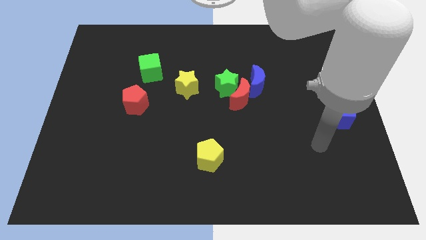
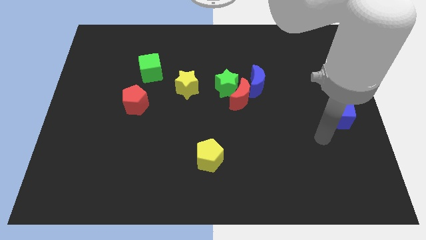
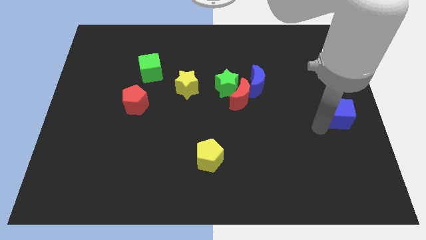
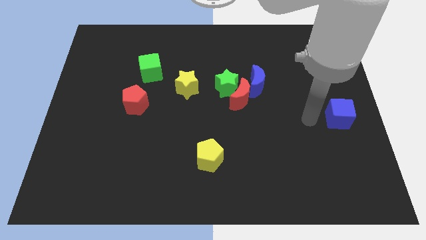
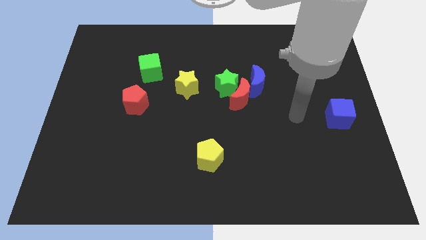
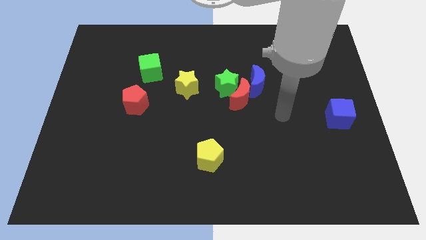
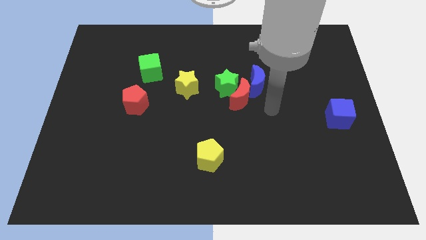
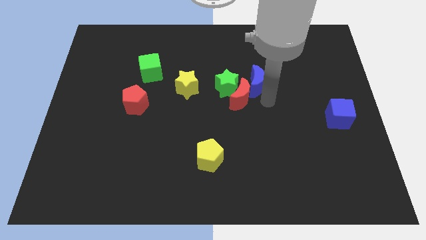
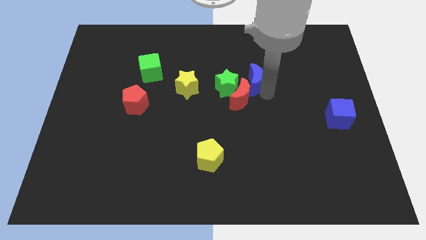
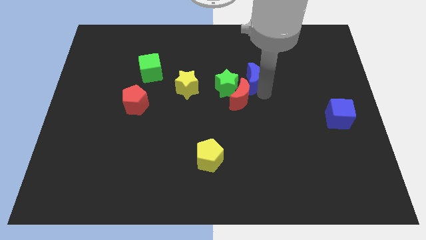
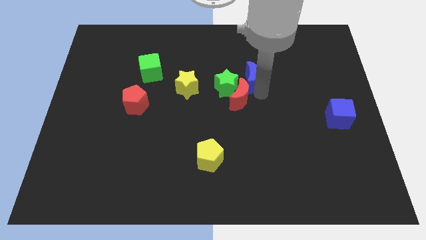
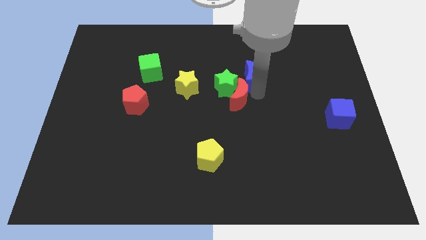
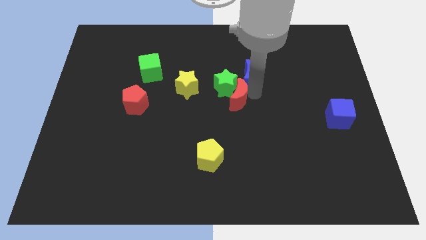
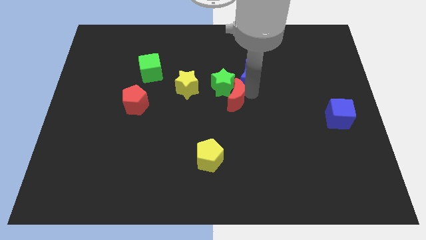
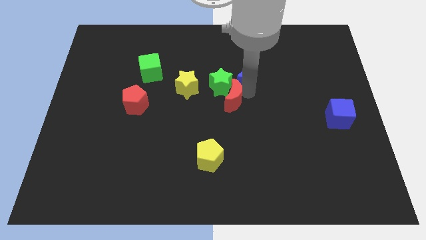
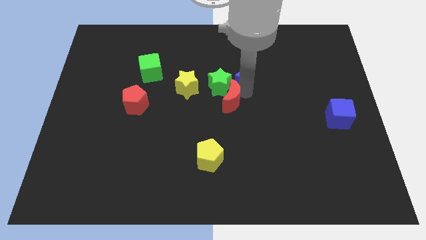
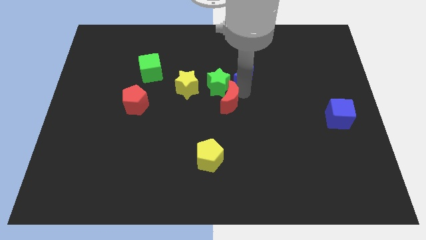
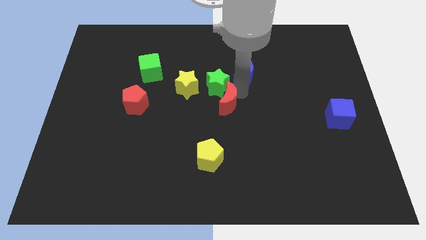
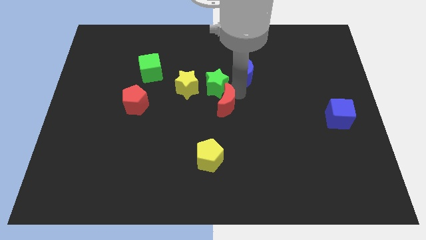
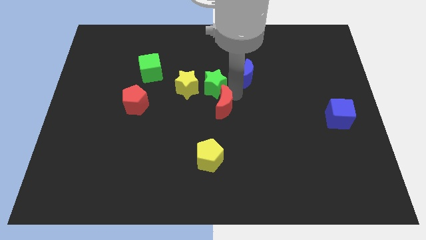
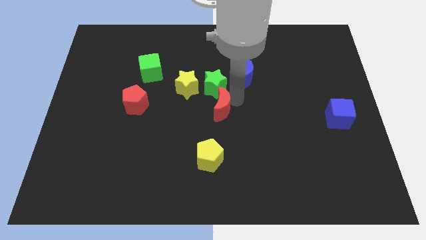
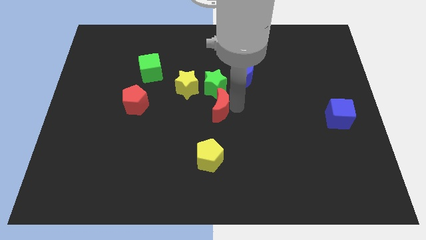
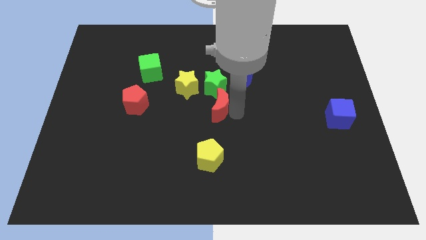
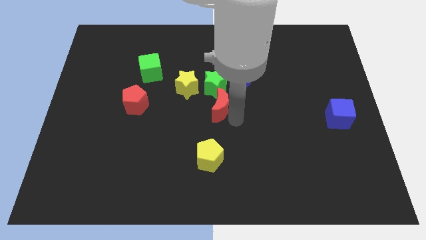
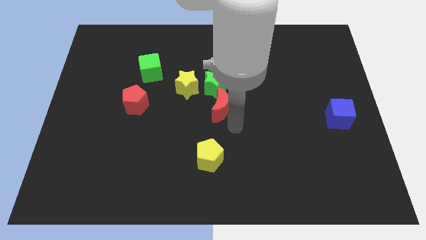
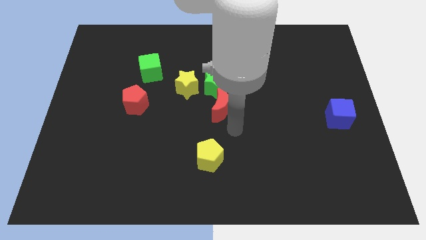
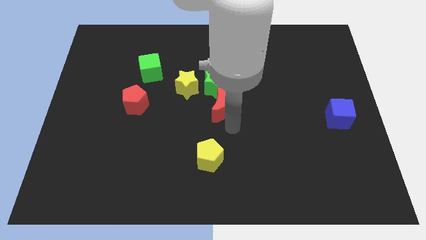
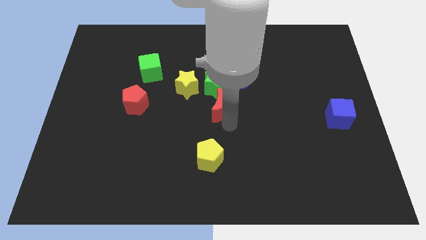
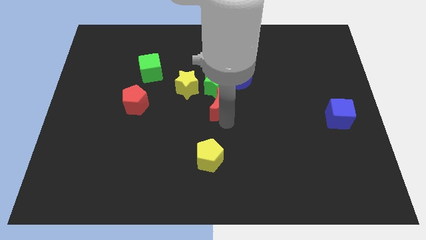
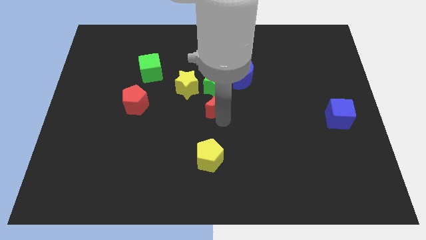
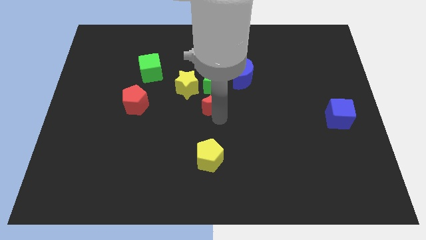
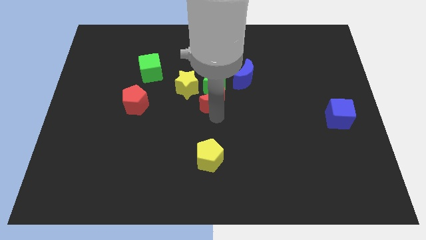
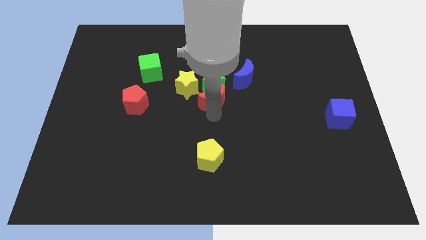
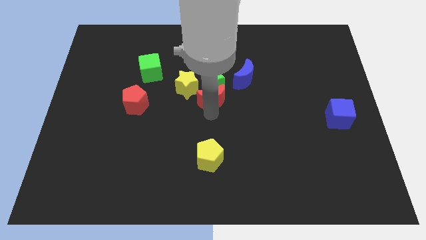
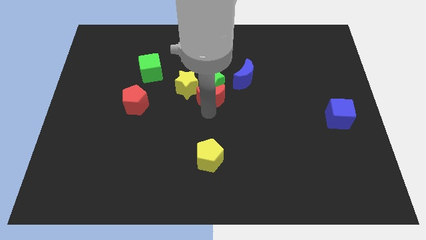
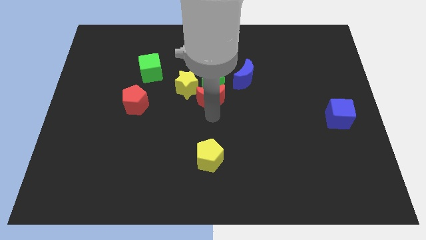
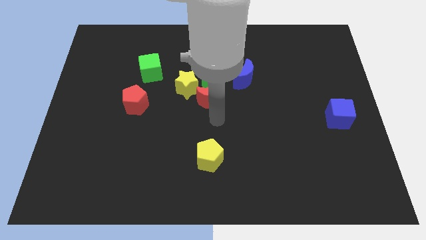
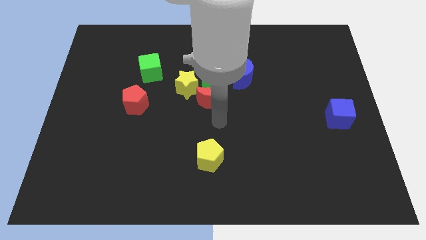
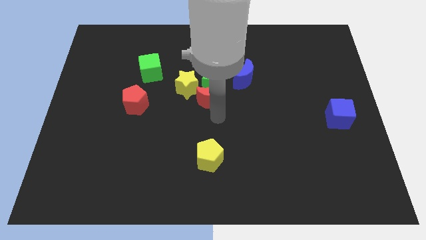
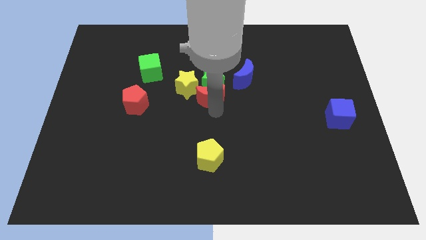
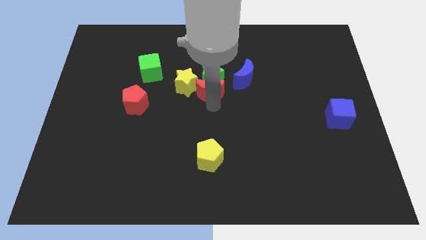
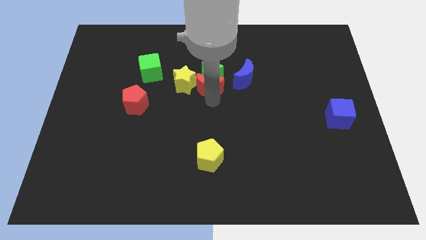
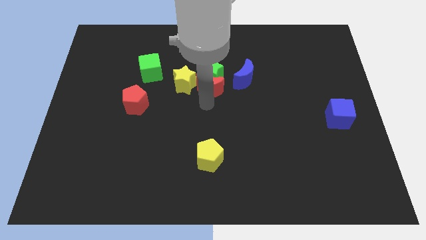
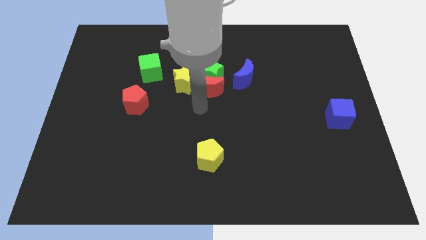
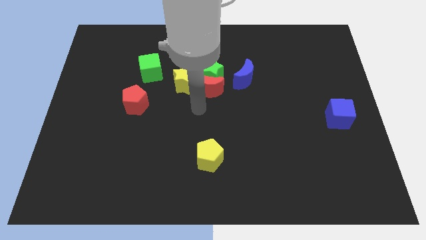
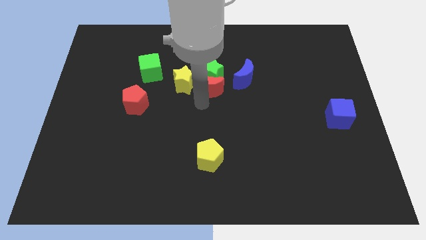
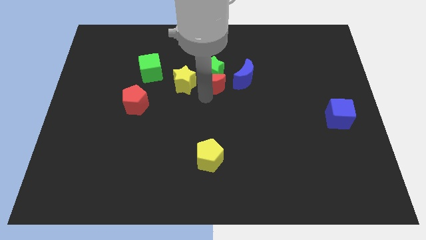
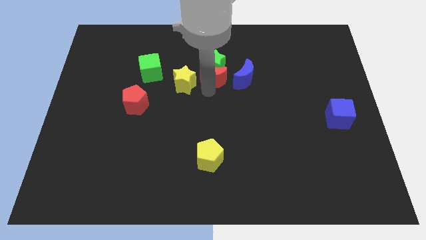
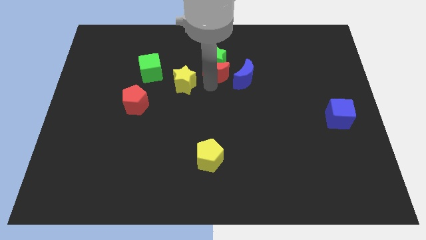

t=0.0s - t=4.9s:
move the red moon to the top left of the blue moon

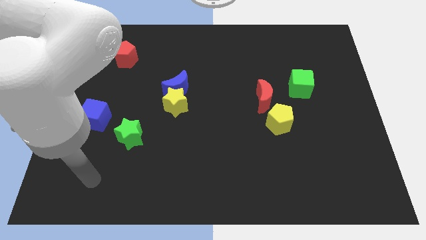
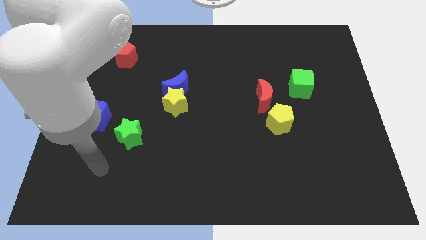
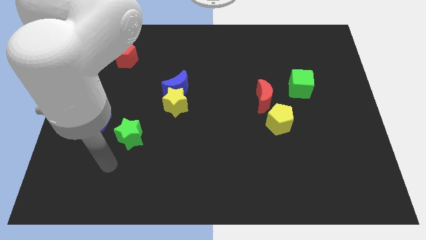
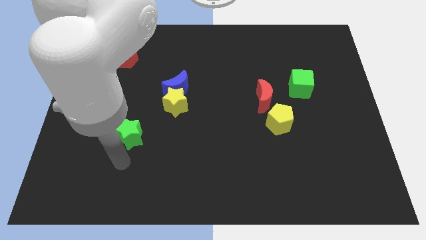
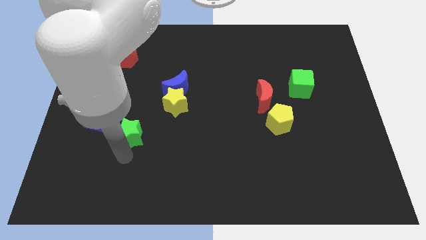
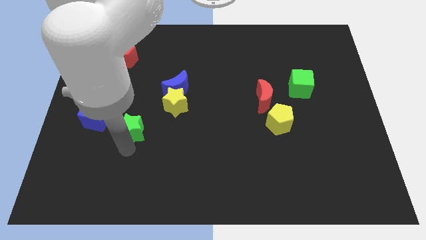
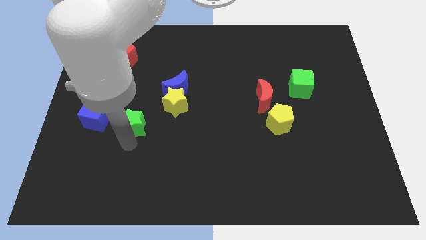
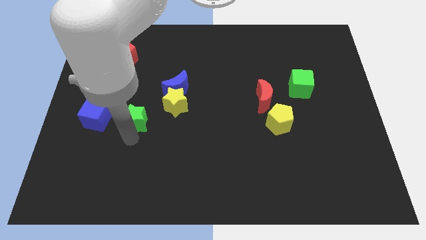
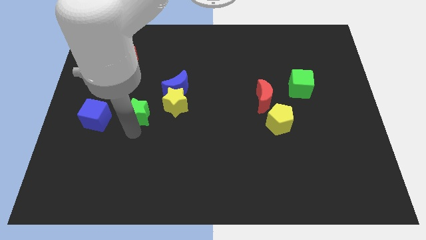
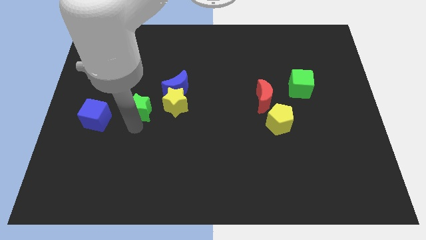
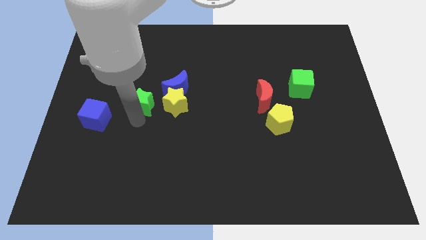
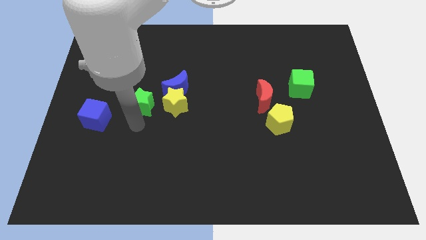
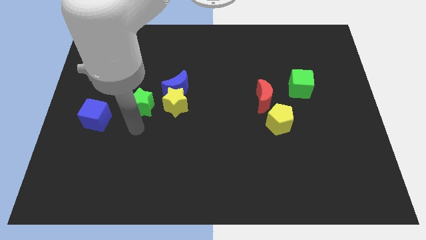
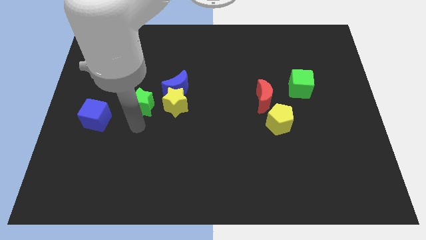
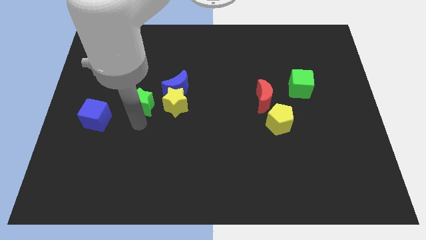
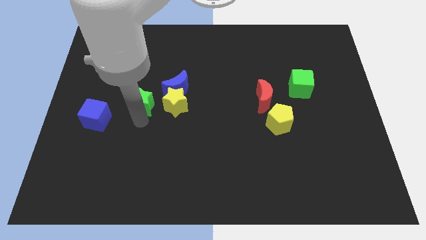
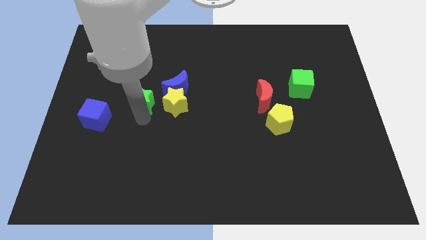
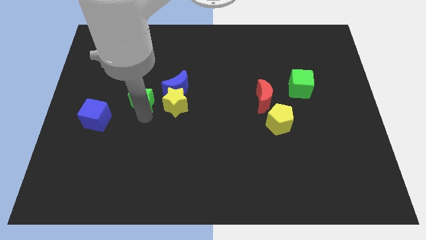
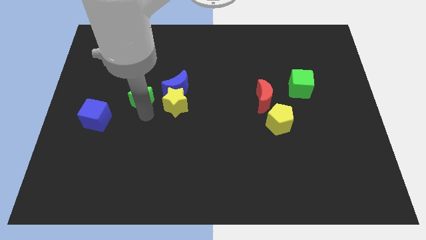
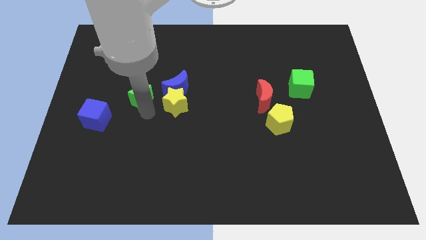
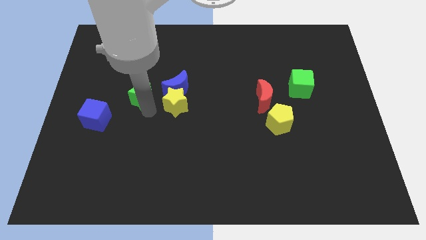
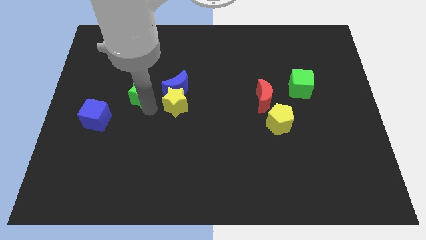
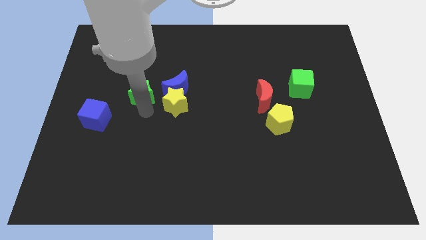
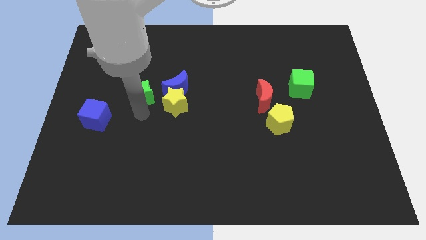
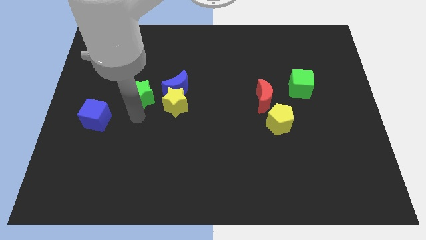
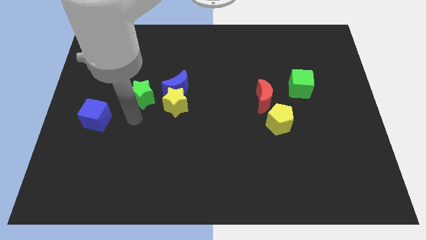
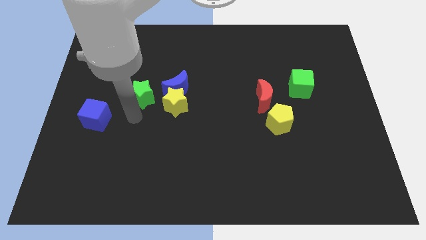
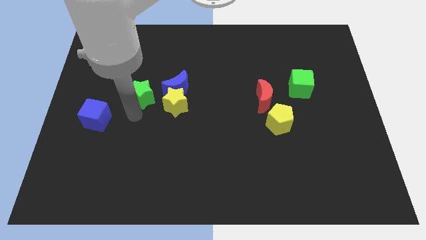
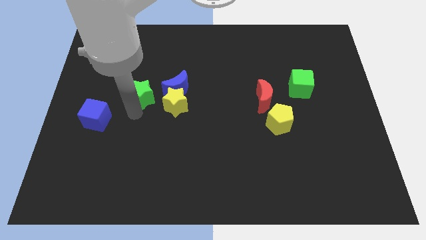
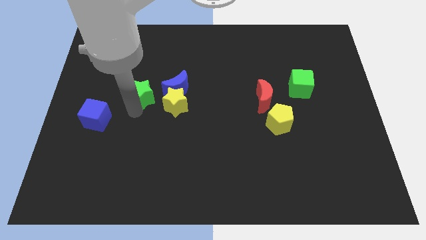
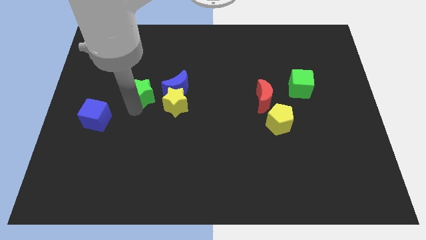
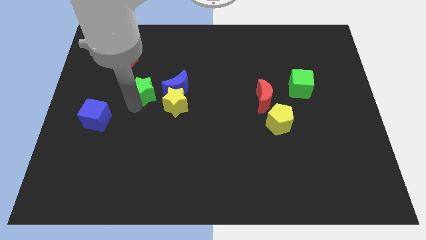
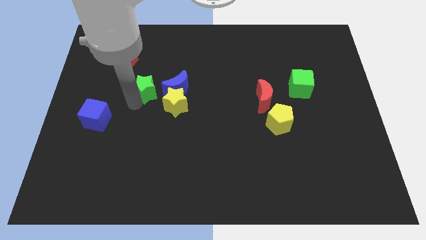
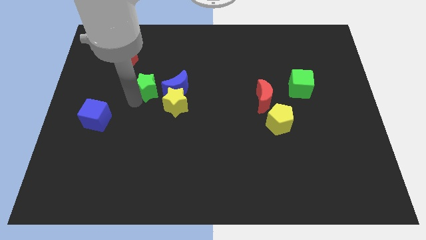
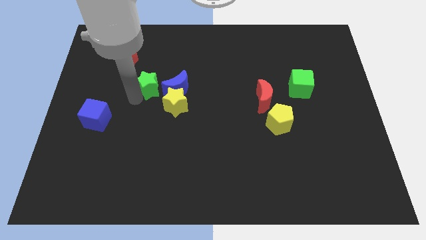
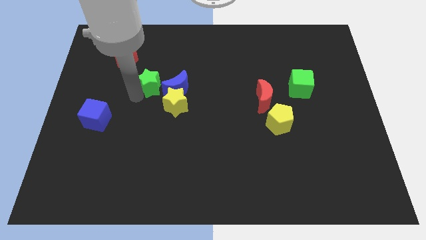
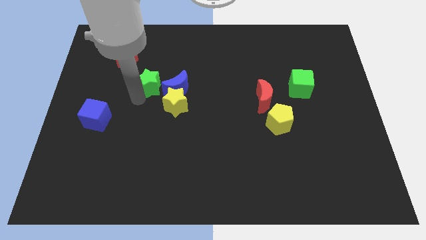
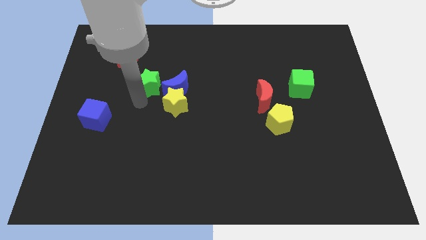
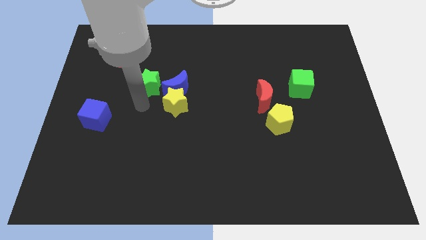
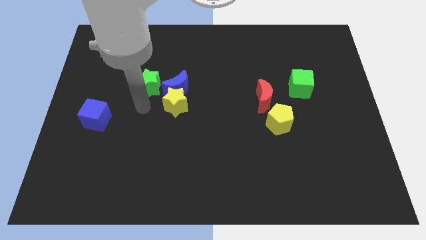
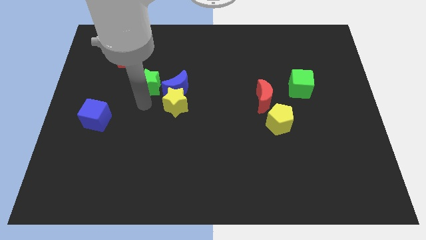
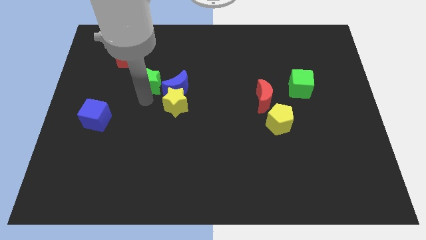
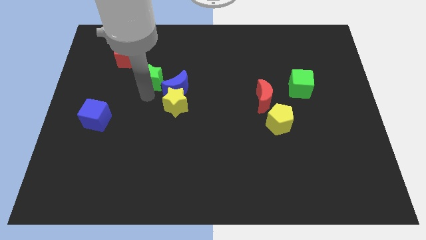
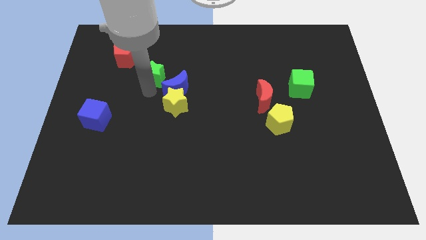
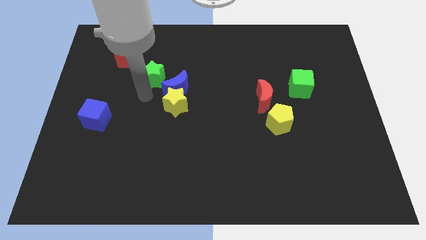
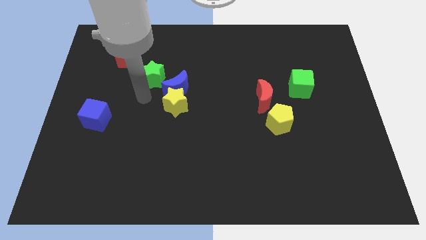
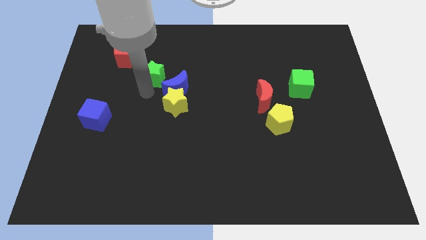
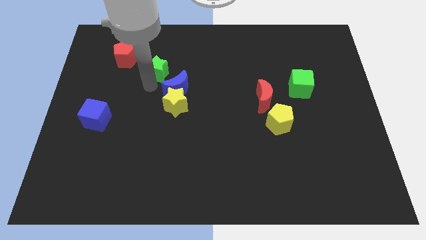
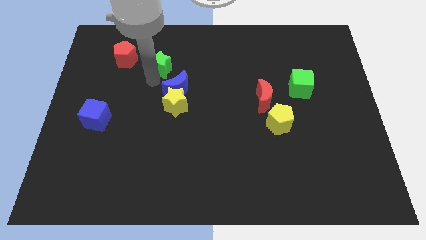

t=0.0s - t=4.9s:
slide the green star just right of the red pentagon
